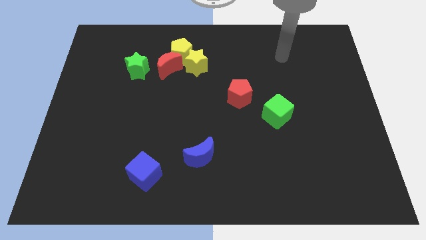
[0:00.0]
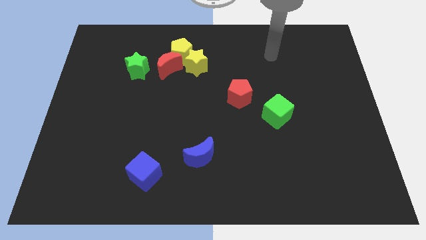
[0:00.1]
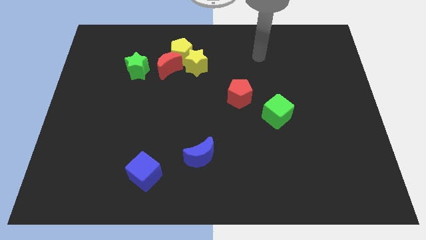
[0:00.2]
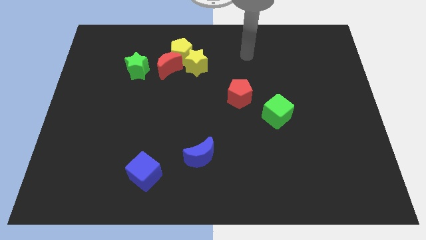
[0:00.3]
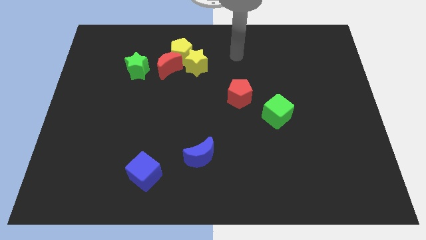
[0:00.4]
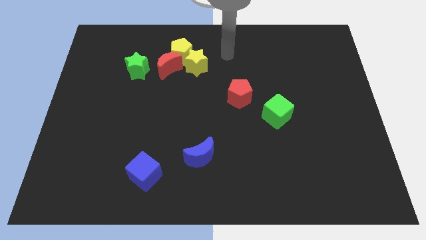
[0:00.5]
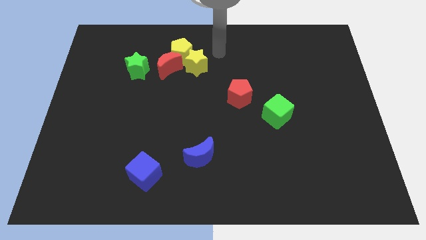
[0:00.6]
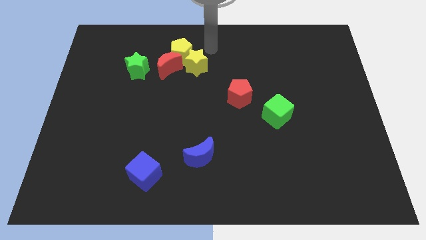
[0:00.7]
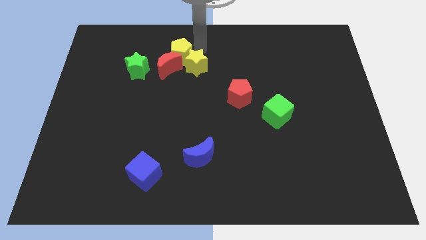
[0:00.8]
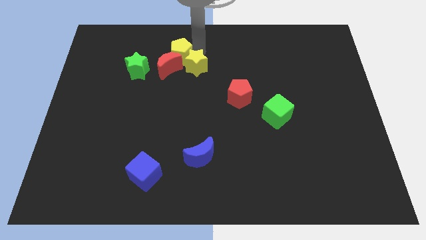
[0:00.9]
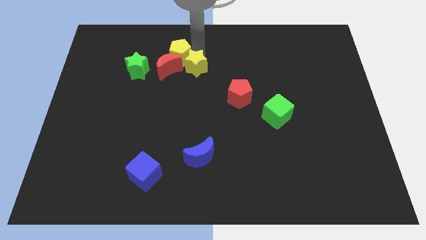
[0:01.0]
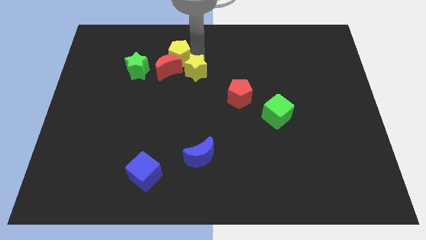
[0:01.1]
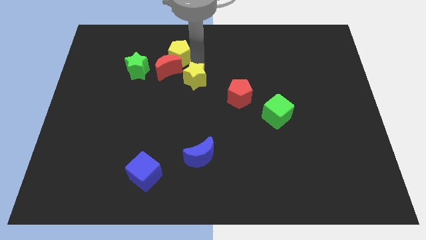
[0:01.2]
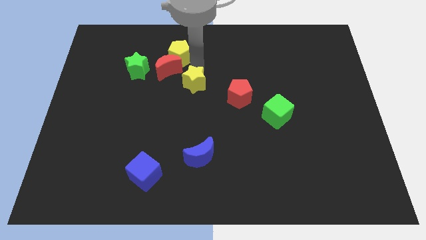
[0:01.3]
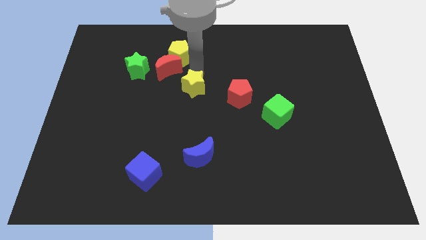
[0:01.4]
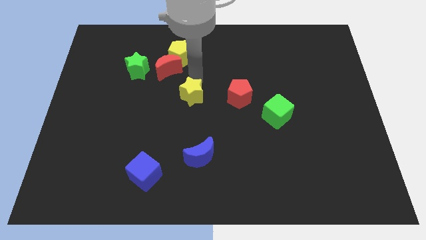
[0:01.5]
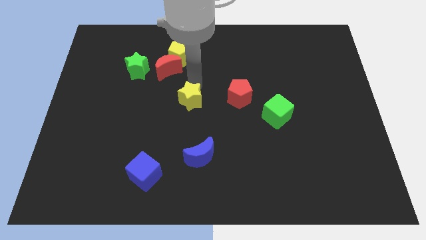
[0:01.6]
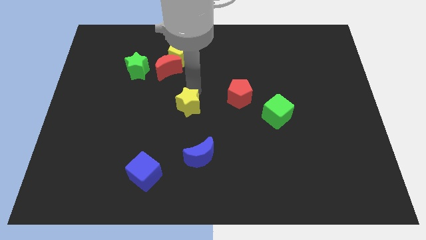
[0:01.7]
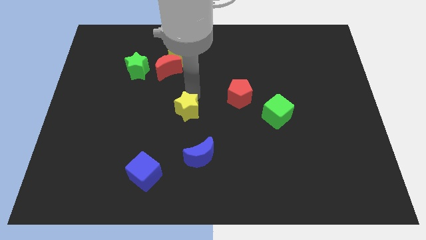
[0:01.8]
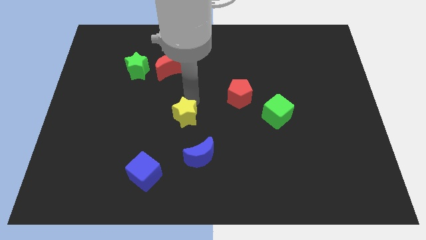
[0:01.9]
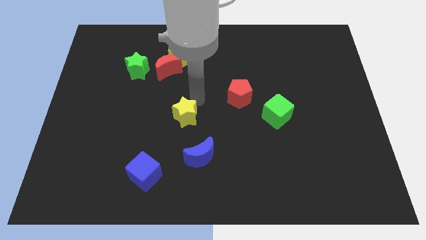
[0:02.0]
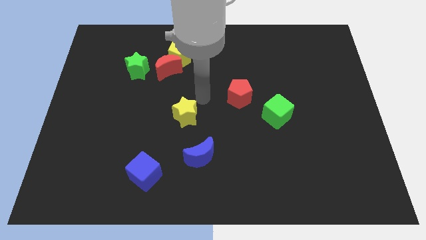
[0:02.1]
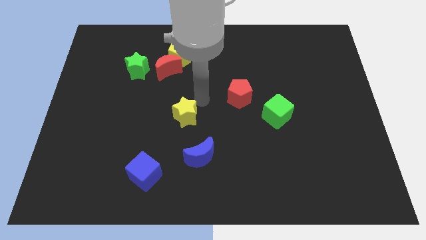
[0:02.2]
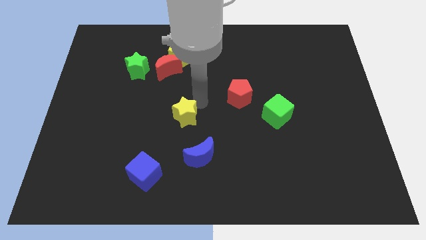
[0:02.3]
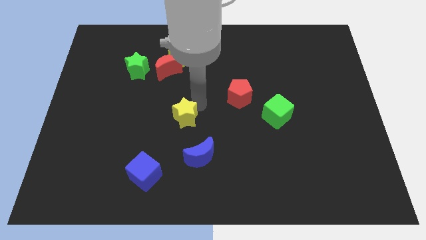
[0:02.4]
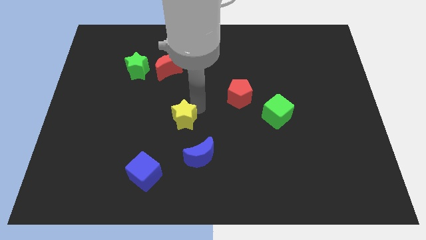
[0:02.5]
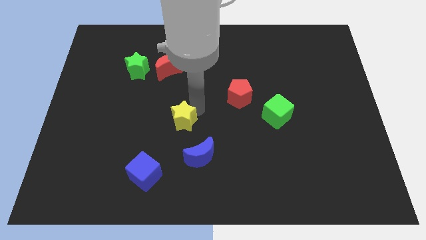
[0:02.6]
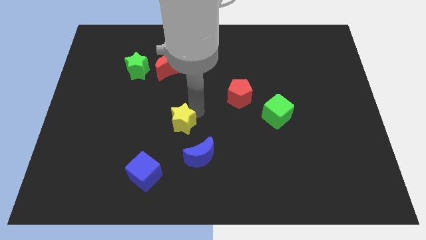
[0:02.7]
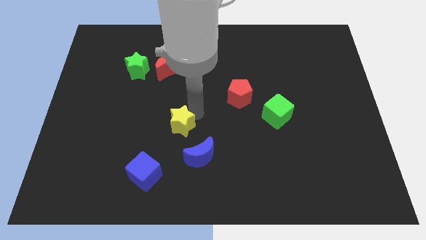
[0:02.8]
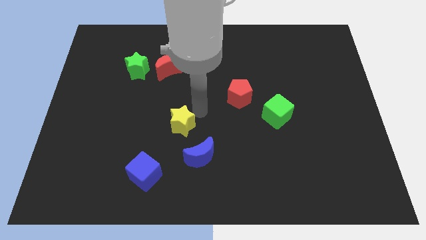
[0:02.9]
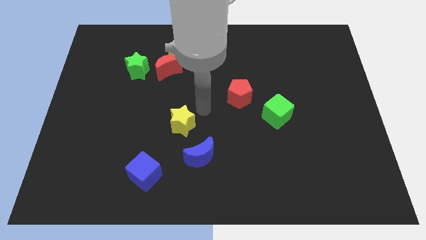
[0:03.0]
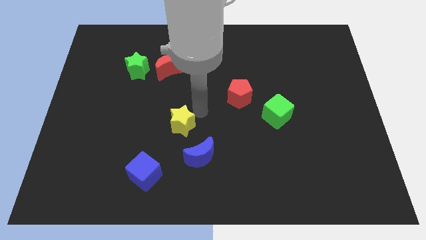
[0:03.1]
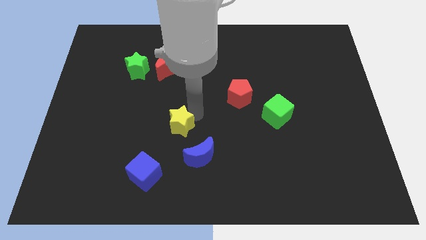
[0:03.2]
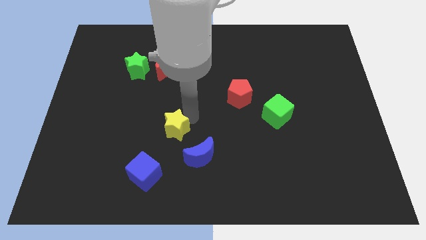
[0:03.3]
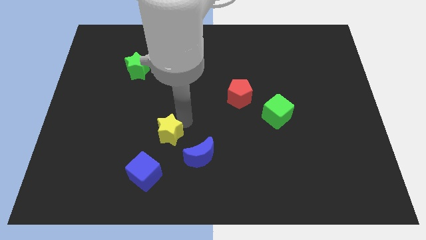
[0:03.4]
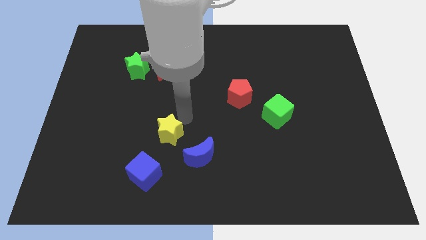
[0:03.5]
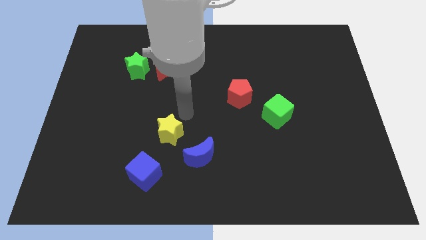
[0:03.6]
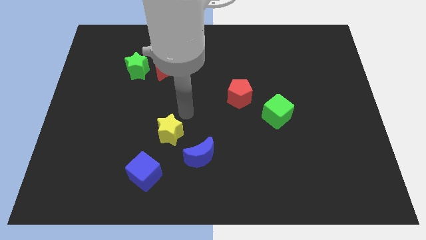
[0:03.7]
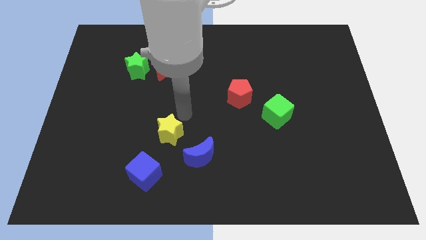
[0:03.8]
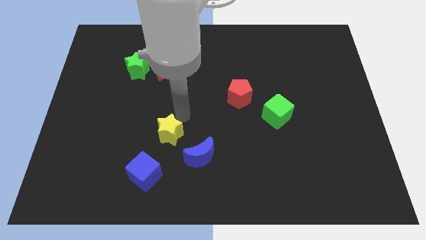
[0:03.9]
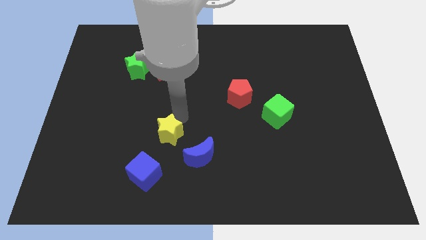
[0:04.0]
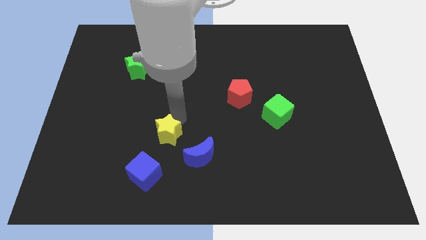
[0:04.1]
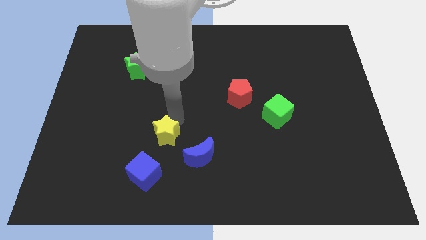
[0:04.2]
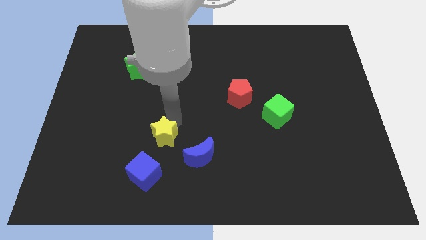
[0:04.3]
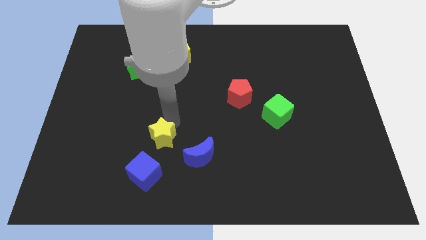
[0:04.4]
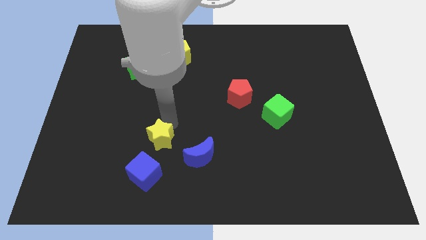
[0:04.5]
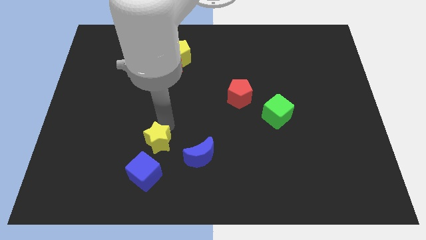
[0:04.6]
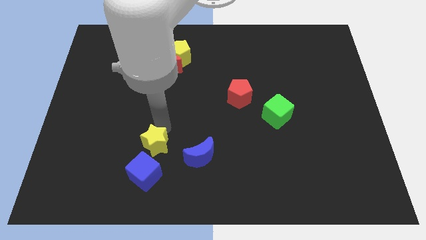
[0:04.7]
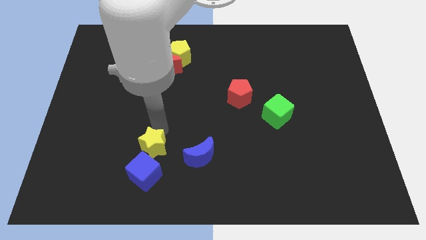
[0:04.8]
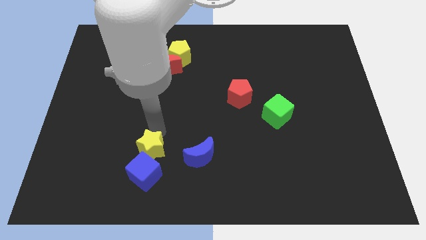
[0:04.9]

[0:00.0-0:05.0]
move the yellow star to the blue cube

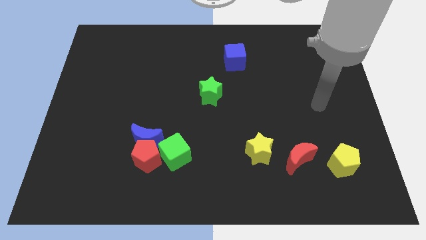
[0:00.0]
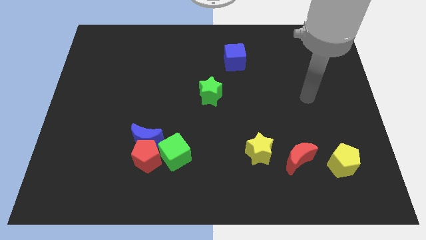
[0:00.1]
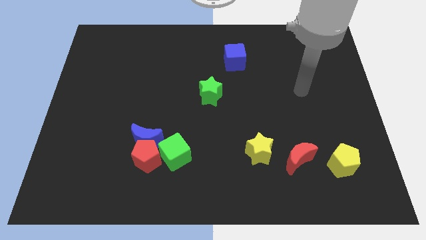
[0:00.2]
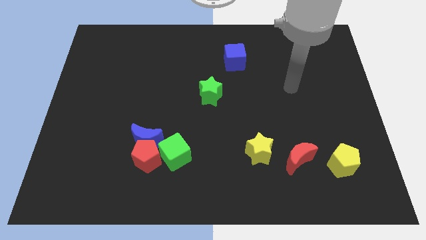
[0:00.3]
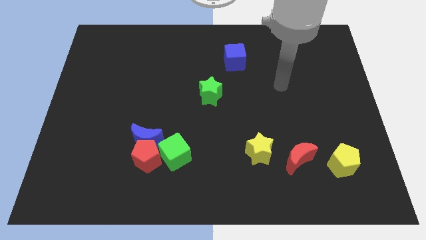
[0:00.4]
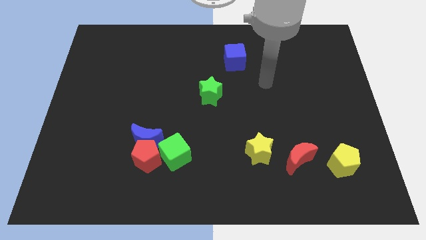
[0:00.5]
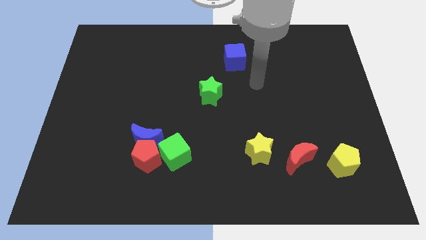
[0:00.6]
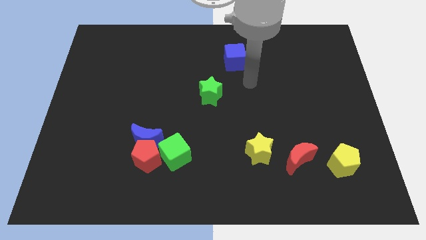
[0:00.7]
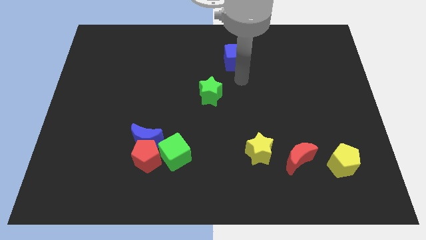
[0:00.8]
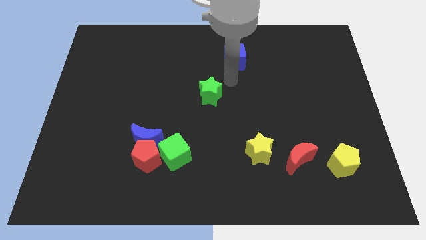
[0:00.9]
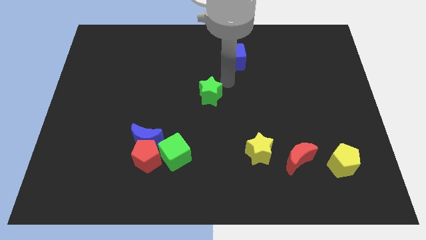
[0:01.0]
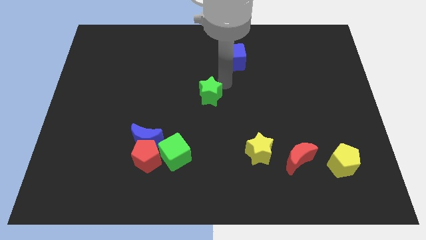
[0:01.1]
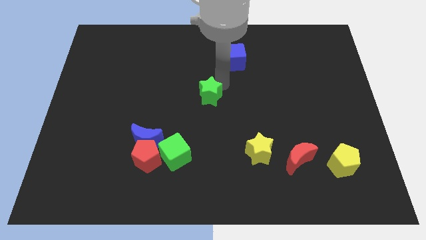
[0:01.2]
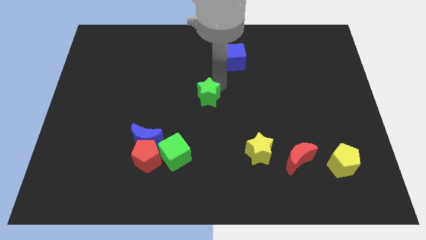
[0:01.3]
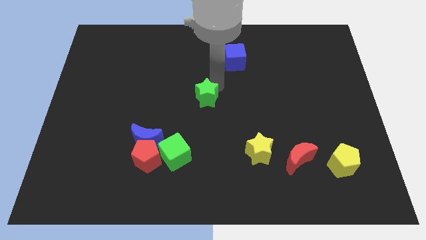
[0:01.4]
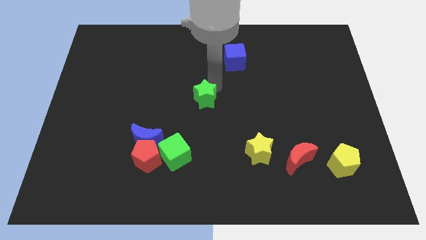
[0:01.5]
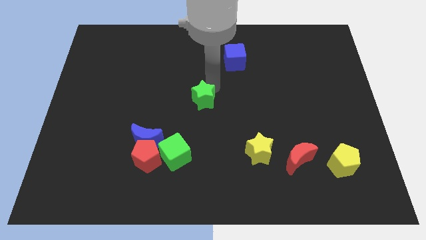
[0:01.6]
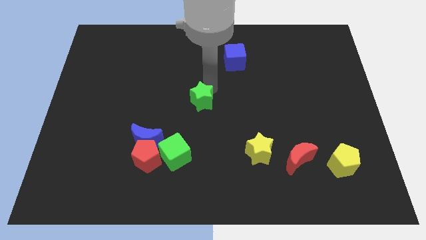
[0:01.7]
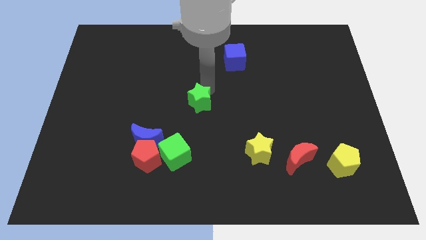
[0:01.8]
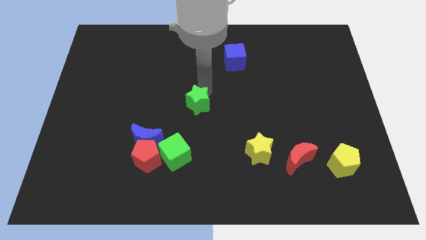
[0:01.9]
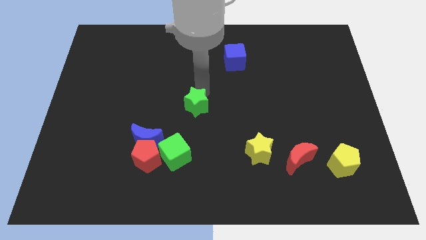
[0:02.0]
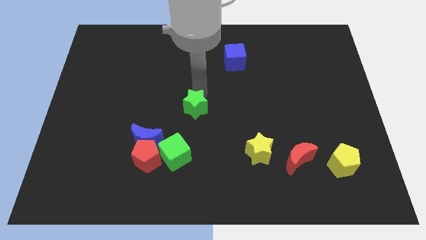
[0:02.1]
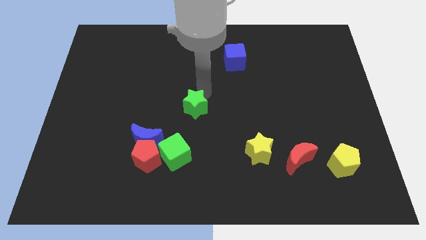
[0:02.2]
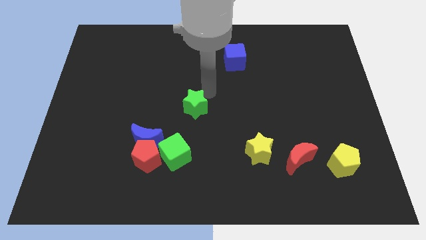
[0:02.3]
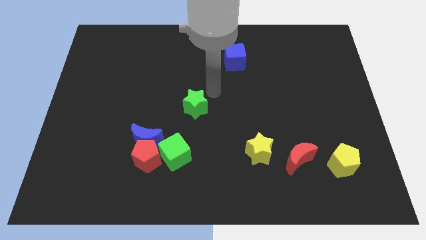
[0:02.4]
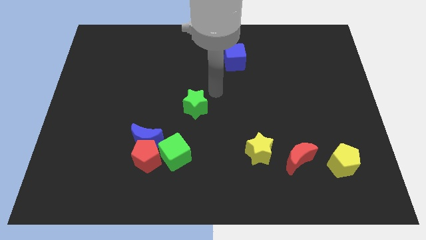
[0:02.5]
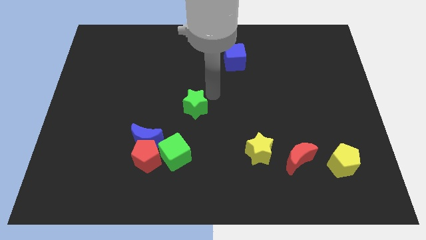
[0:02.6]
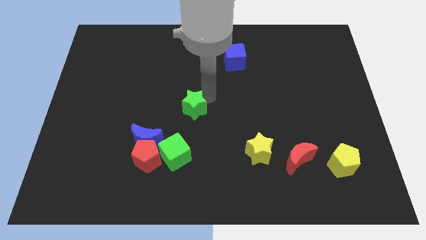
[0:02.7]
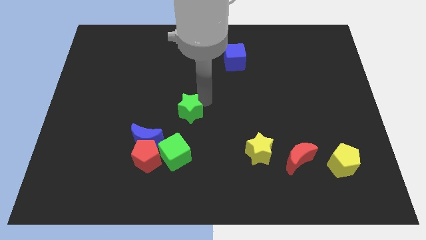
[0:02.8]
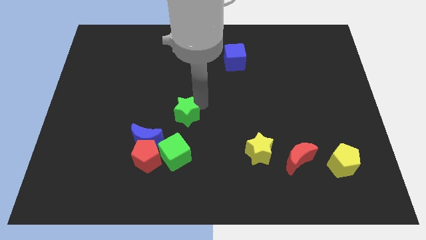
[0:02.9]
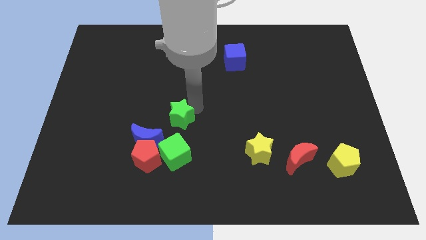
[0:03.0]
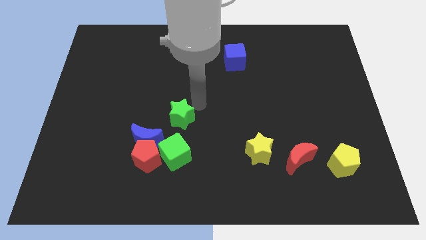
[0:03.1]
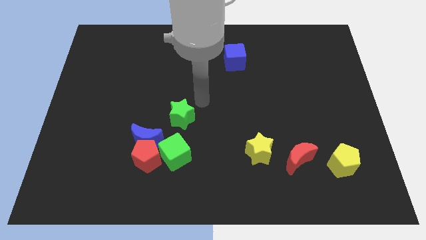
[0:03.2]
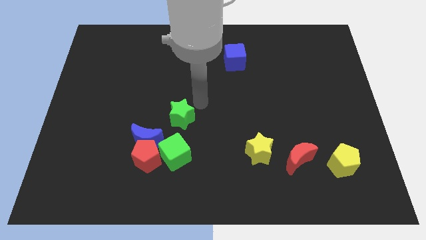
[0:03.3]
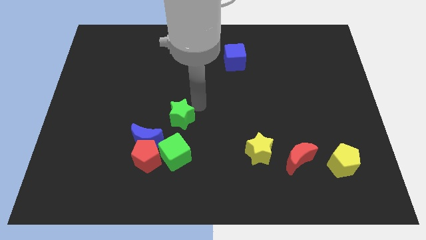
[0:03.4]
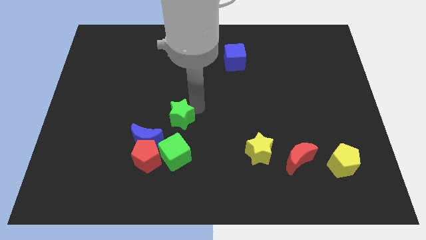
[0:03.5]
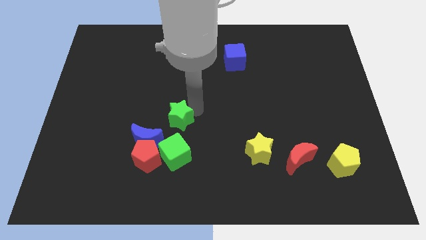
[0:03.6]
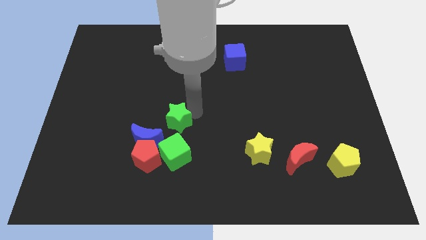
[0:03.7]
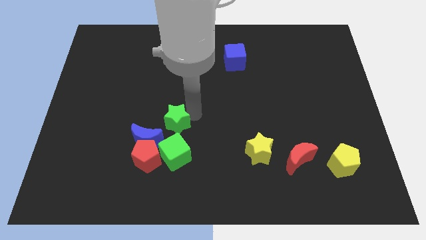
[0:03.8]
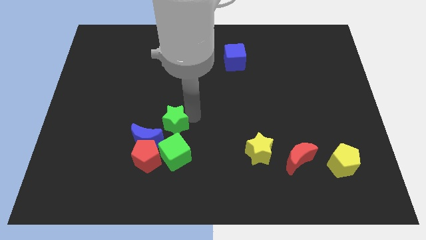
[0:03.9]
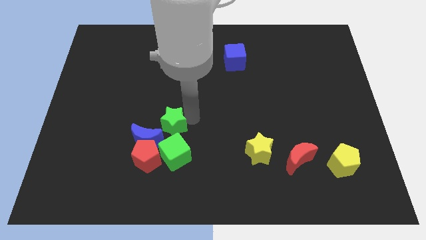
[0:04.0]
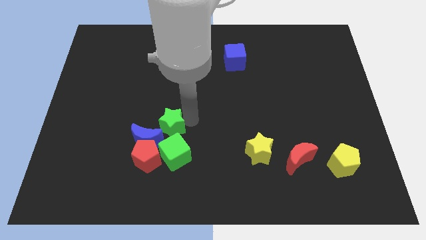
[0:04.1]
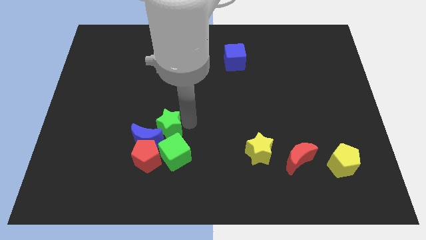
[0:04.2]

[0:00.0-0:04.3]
slide the green star to the blue moon
